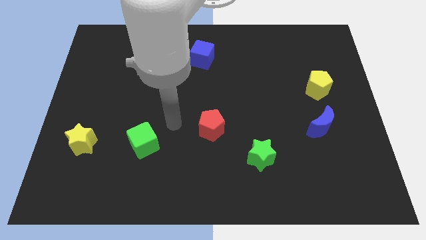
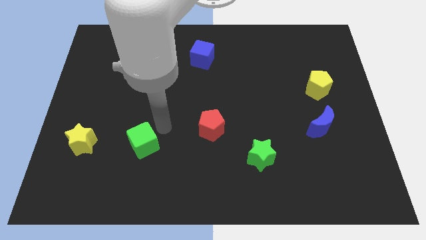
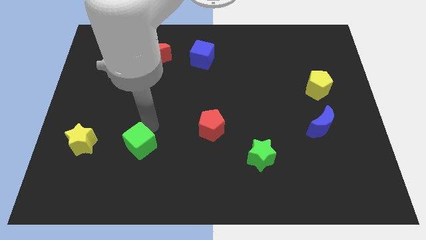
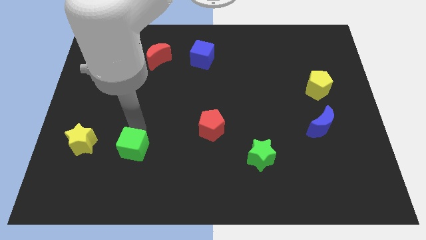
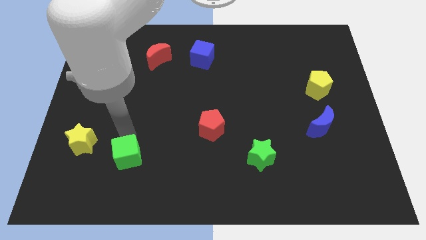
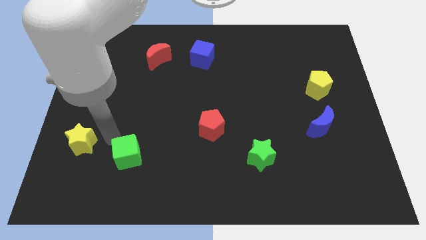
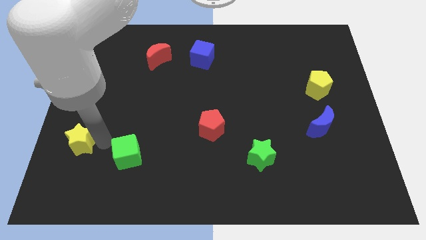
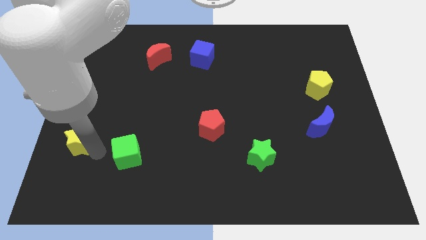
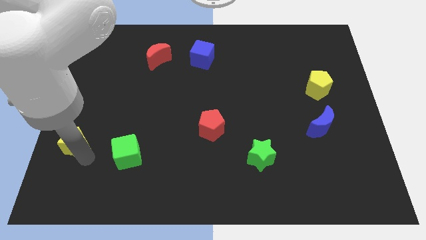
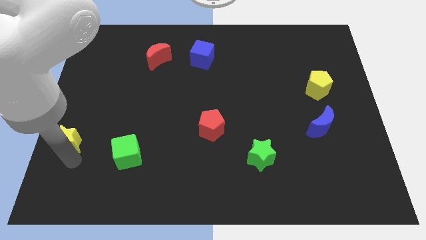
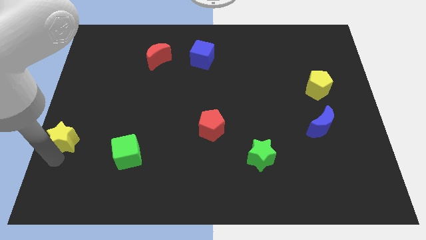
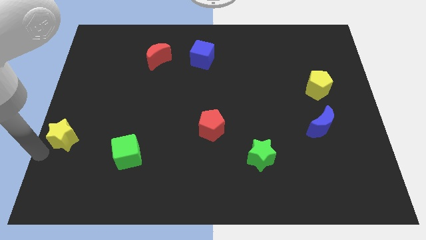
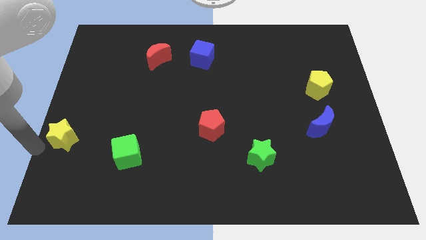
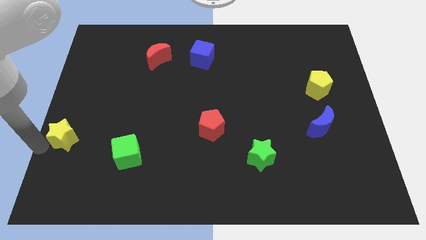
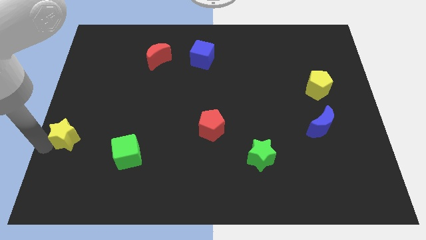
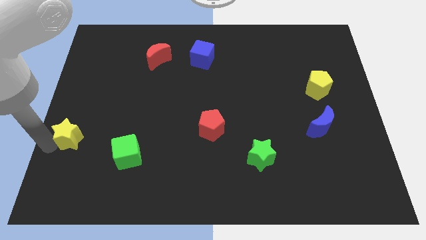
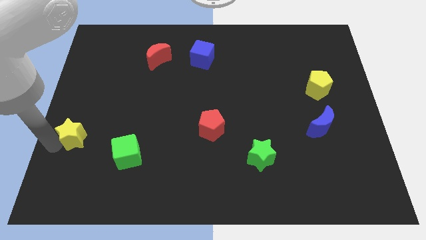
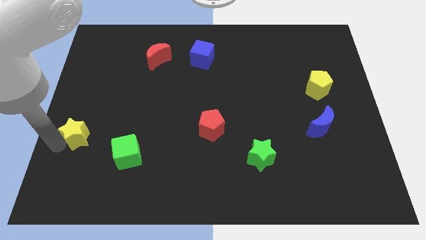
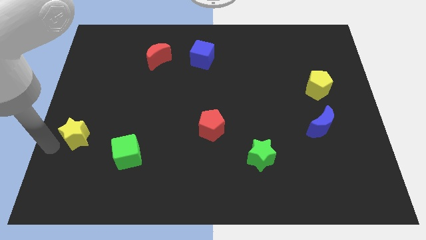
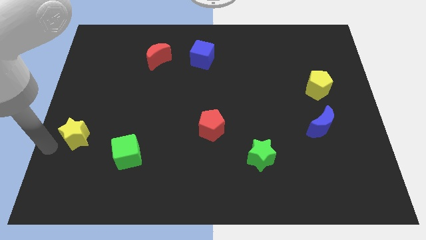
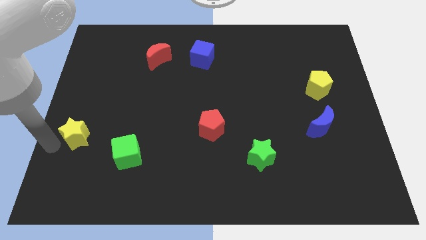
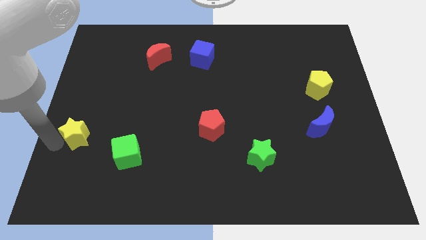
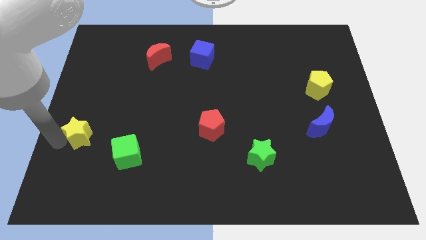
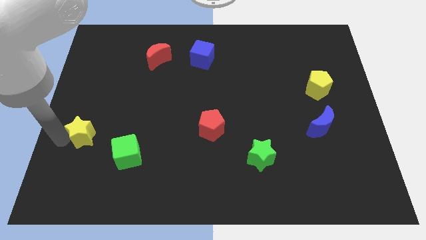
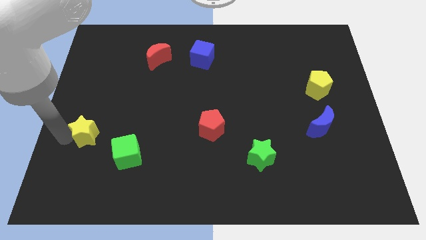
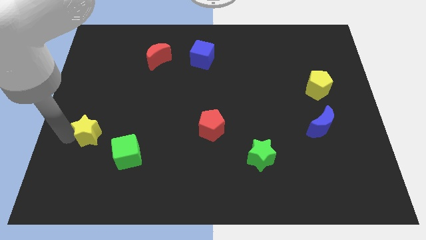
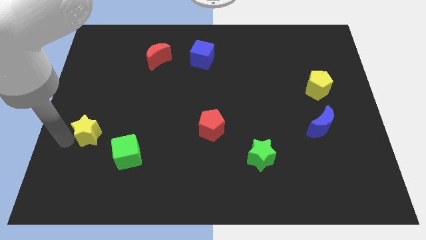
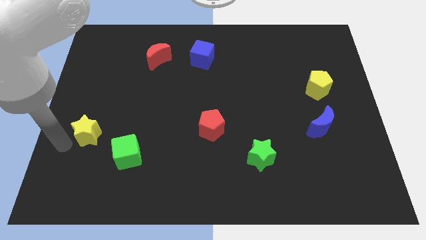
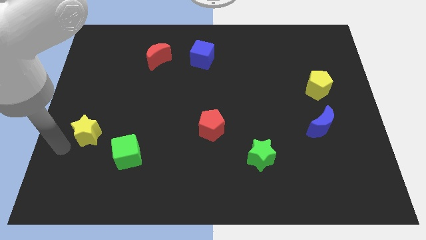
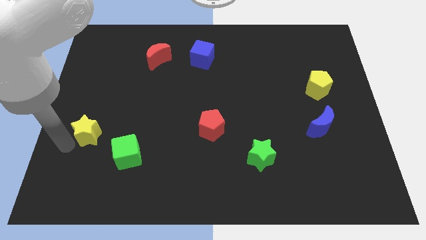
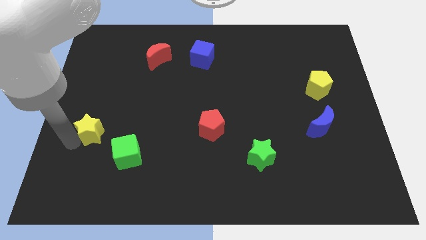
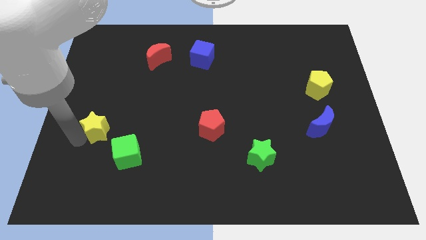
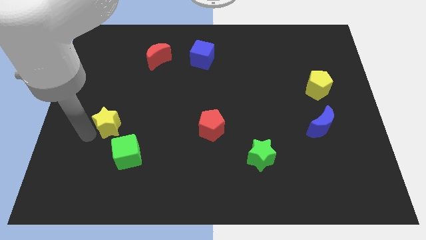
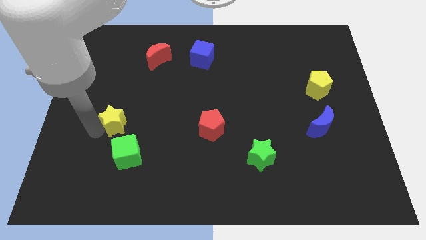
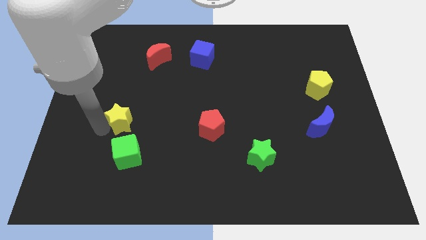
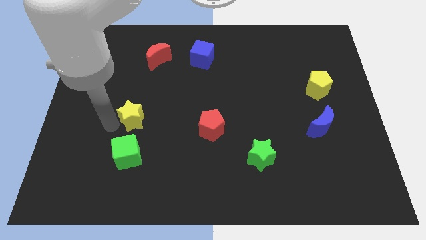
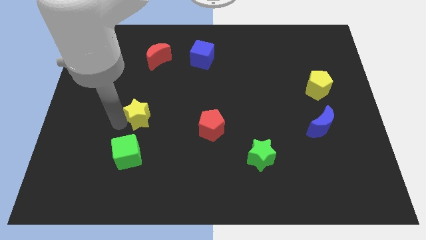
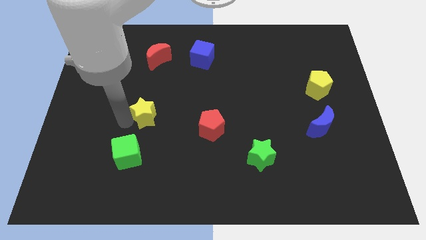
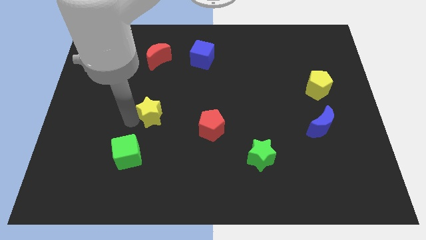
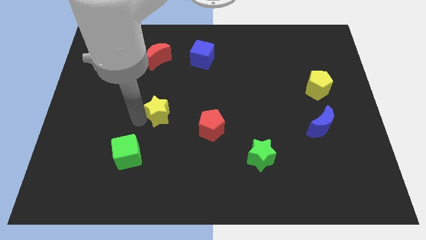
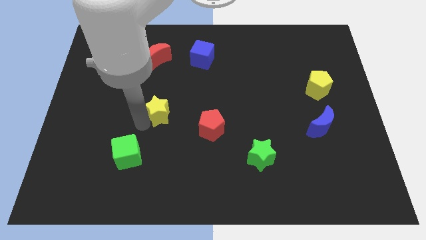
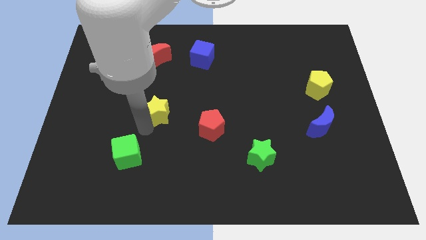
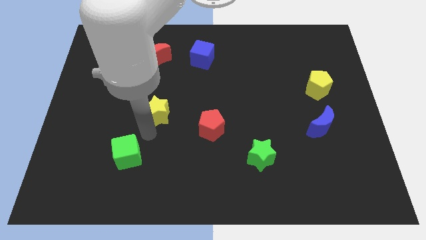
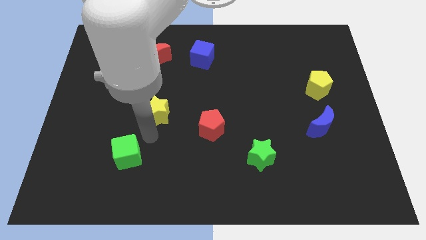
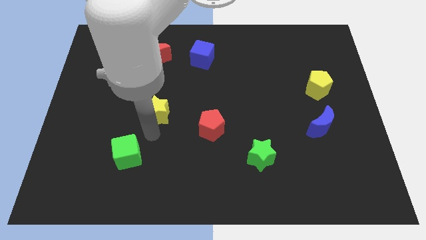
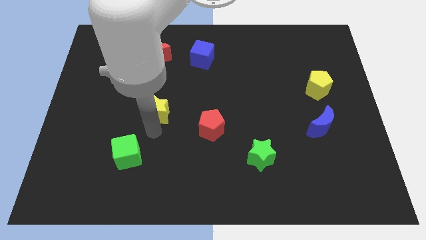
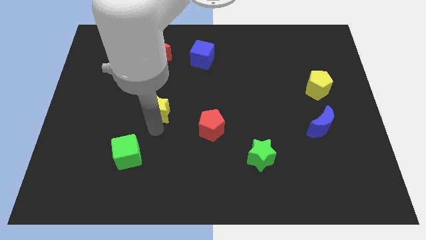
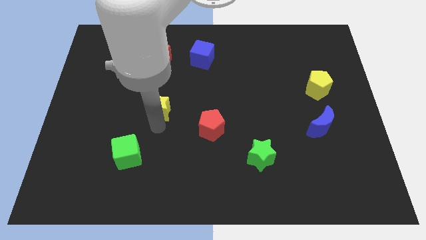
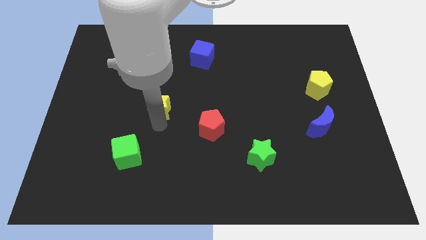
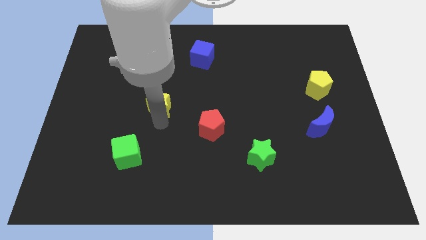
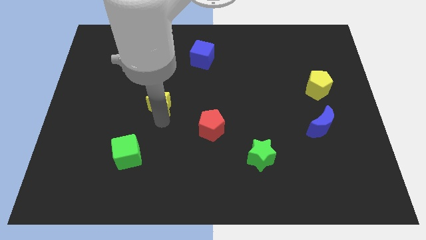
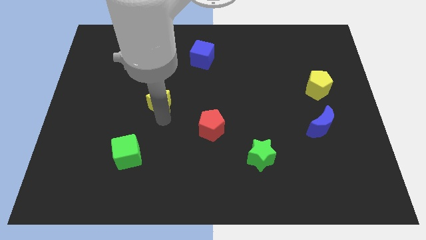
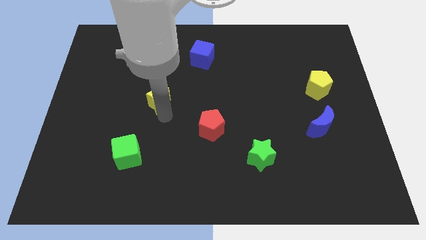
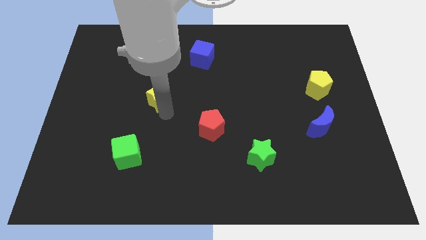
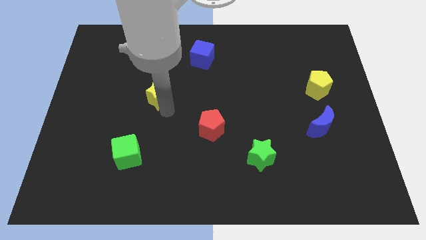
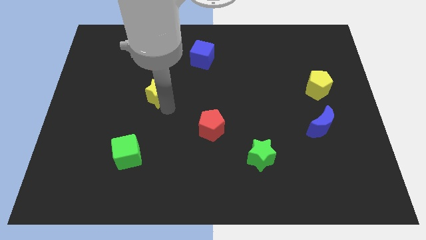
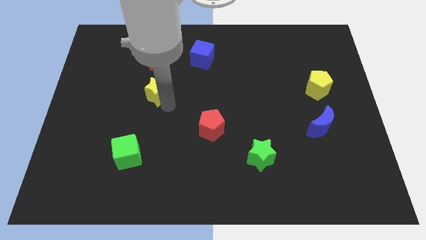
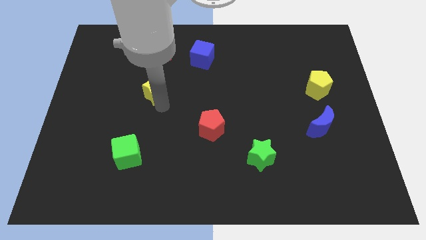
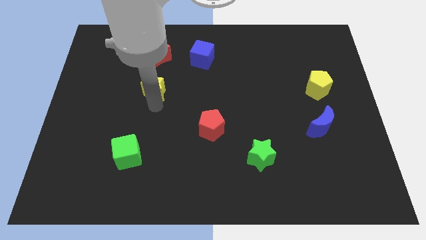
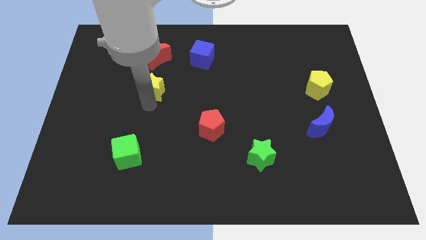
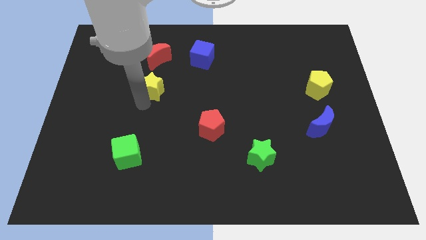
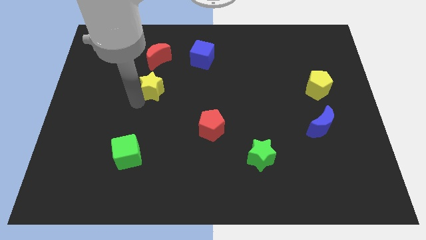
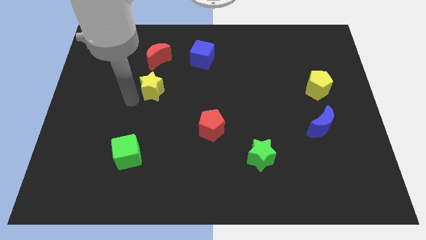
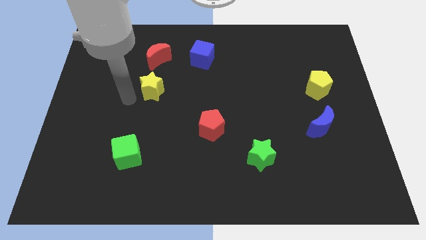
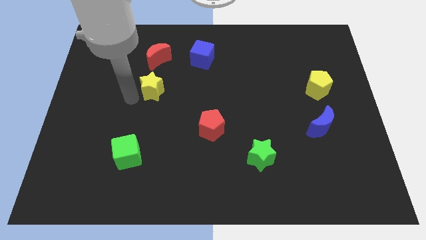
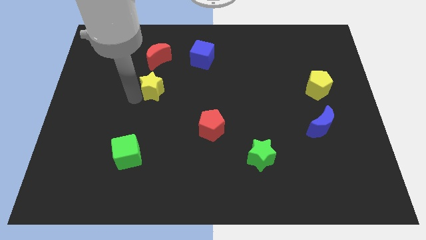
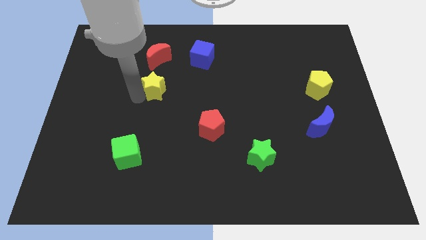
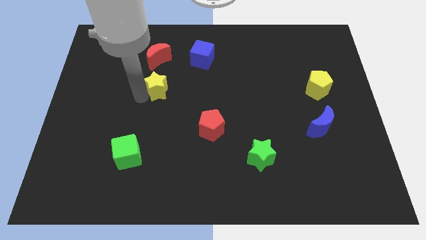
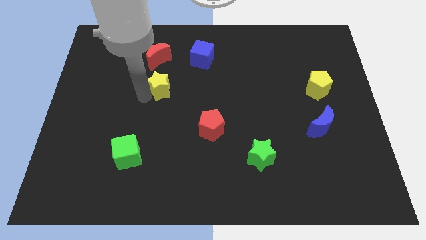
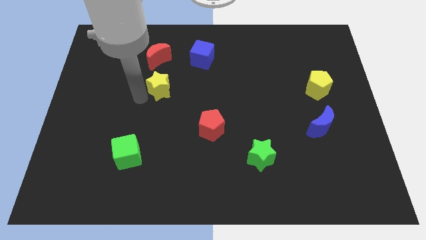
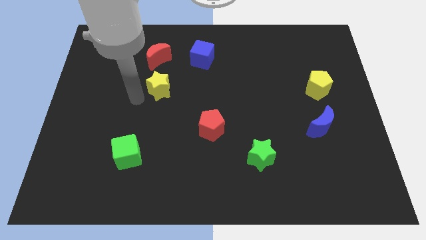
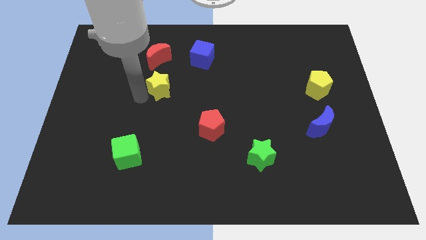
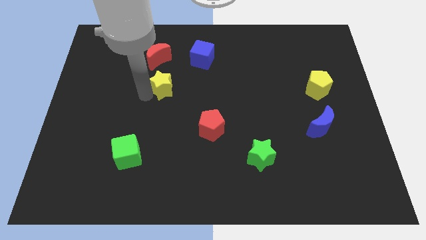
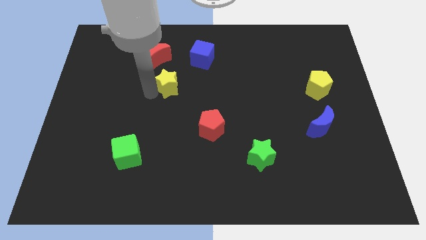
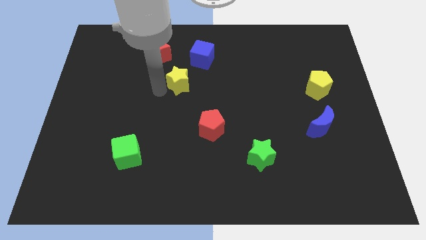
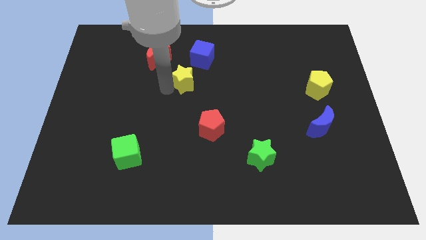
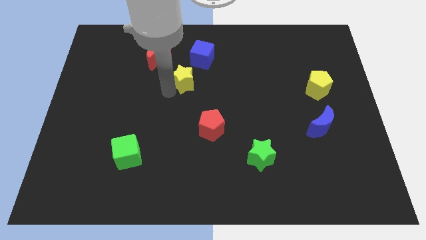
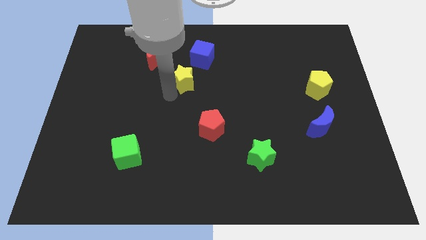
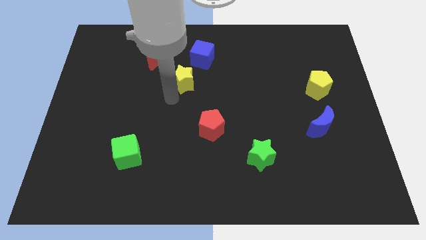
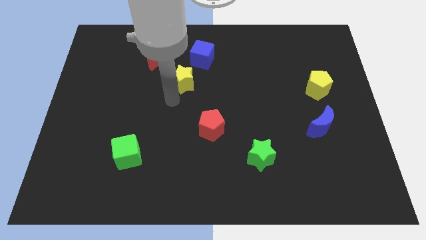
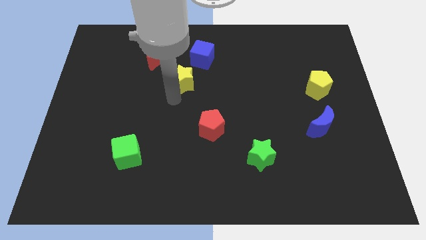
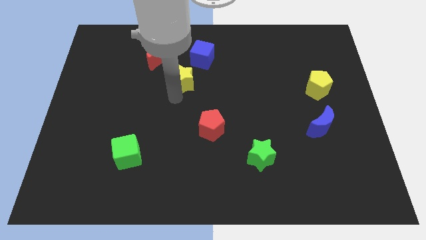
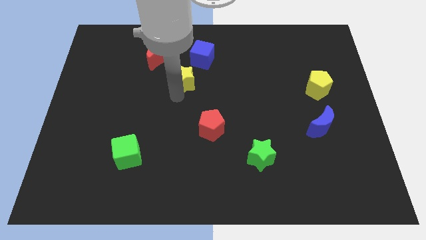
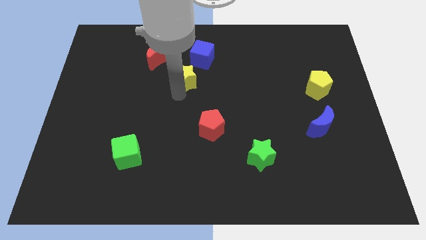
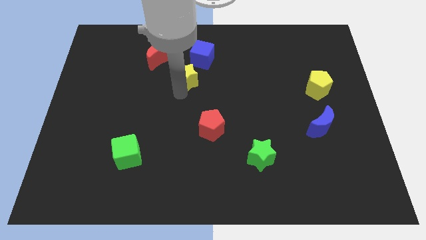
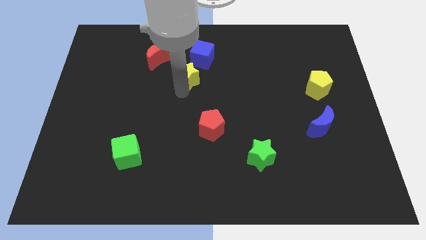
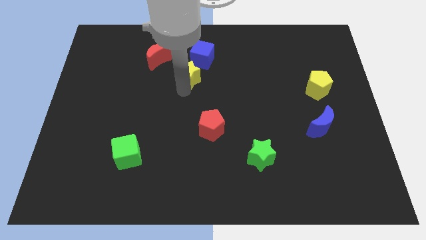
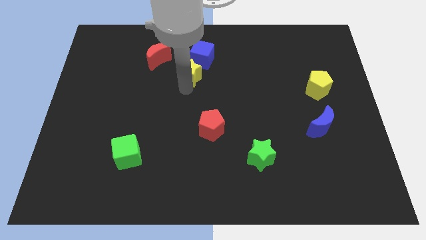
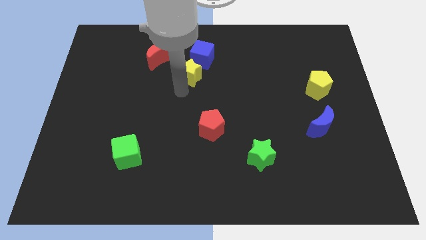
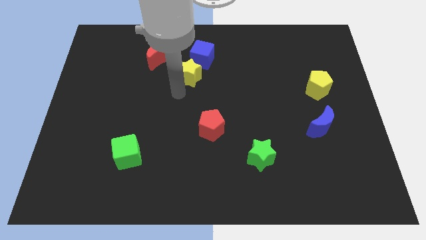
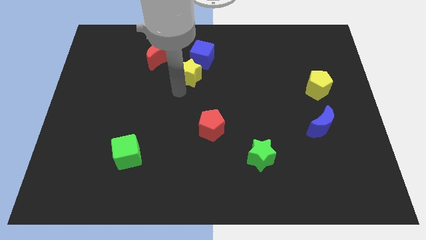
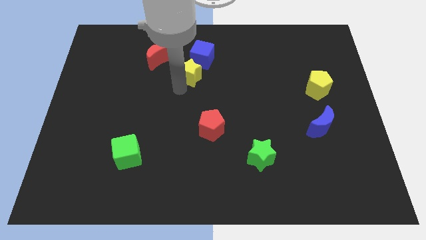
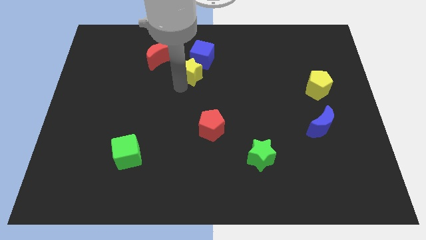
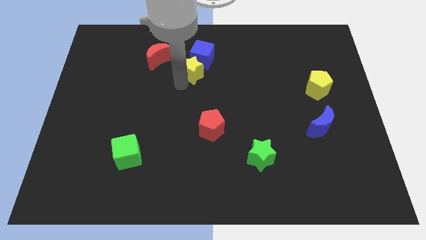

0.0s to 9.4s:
move the yellow star next to the blue cube
